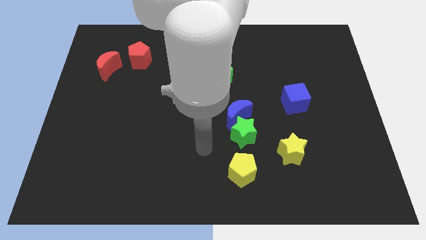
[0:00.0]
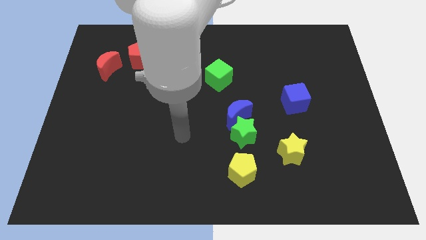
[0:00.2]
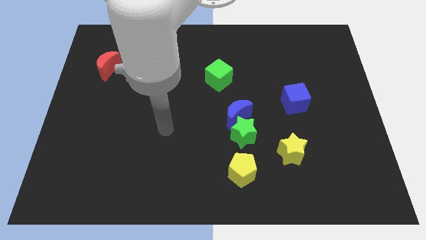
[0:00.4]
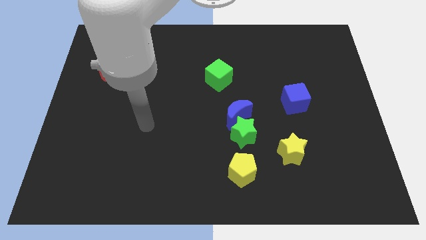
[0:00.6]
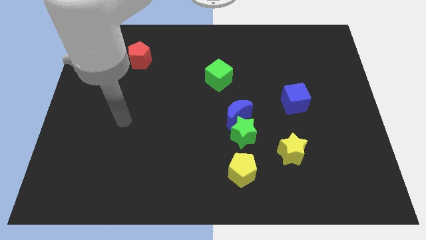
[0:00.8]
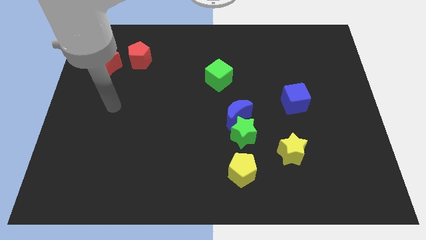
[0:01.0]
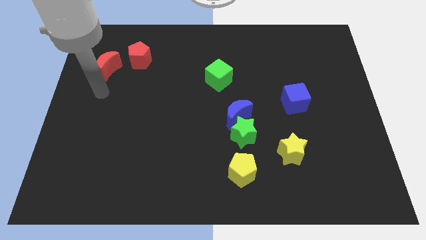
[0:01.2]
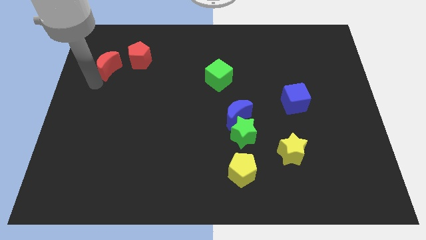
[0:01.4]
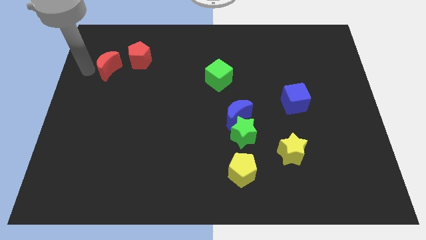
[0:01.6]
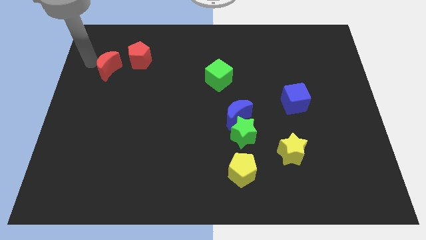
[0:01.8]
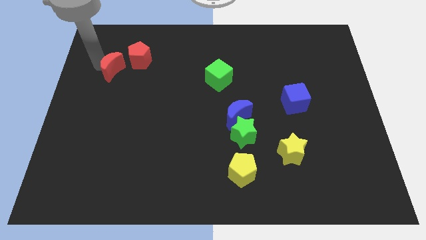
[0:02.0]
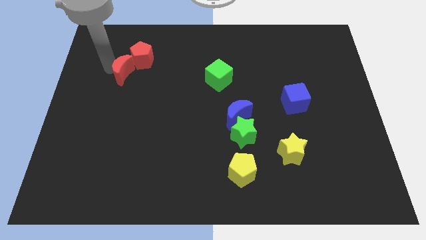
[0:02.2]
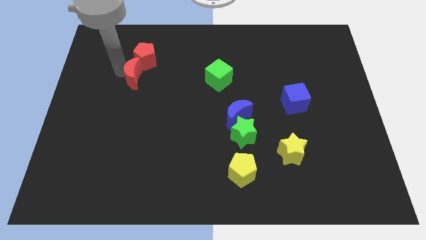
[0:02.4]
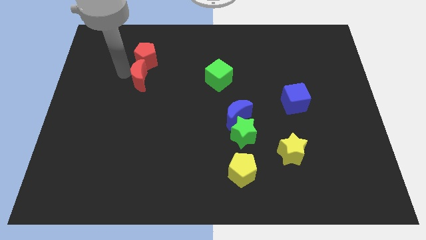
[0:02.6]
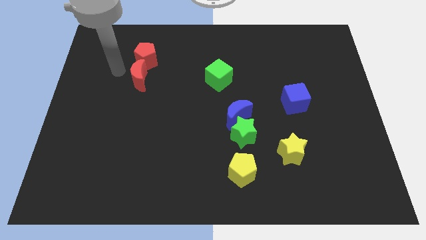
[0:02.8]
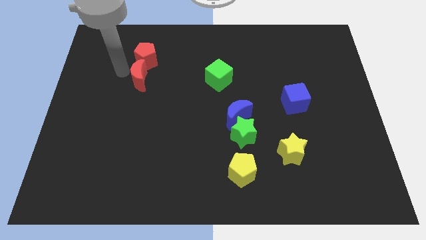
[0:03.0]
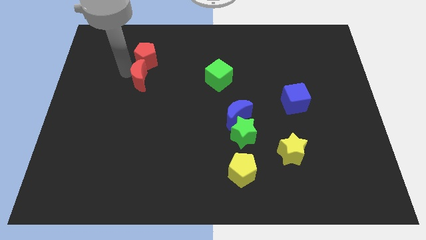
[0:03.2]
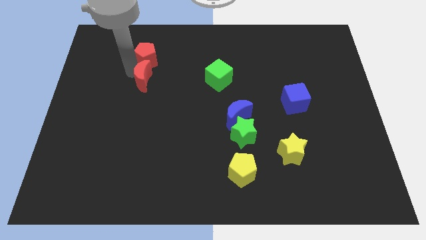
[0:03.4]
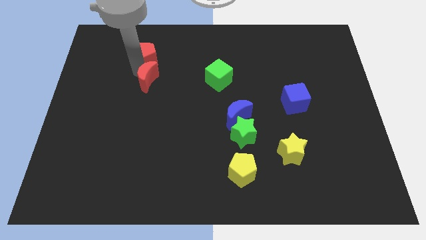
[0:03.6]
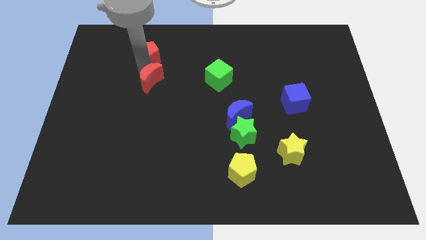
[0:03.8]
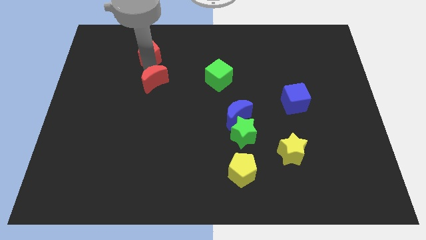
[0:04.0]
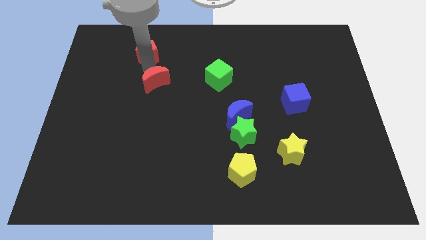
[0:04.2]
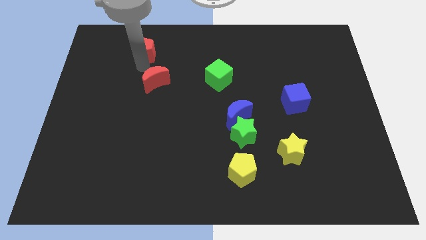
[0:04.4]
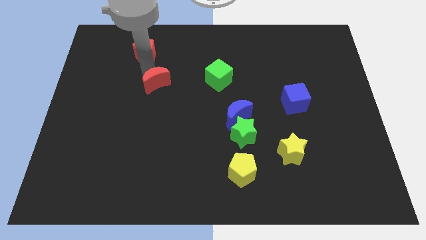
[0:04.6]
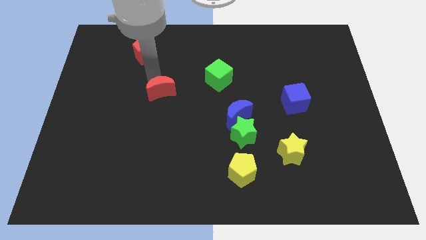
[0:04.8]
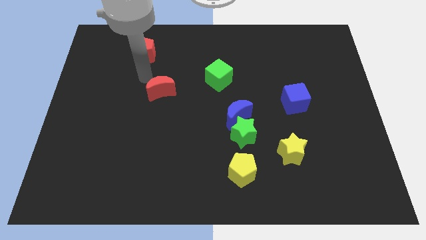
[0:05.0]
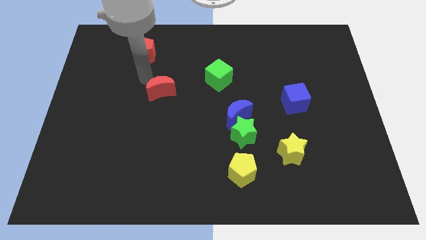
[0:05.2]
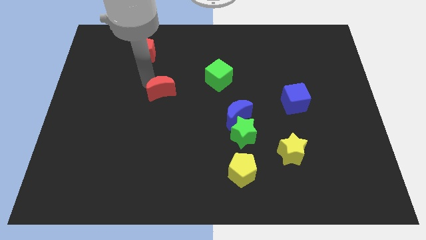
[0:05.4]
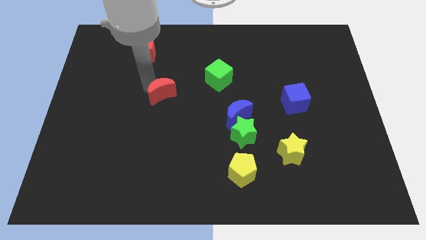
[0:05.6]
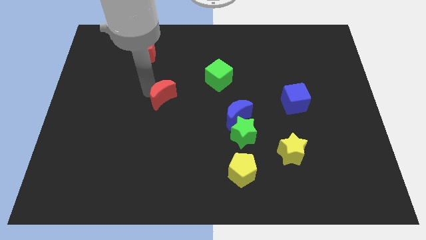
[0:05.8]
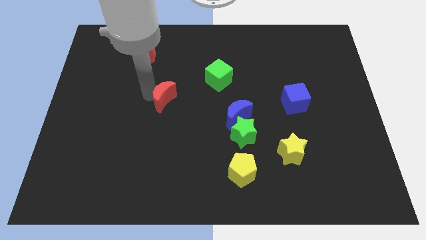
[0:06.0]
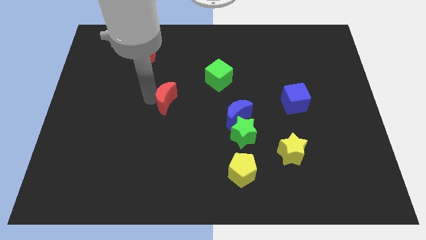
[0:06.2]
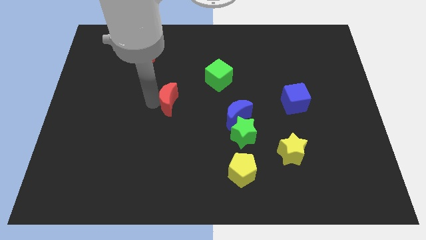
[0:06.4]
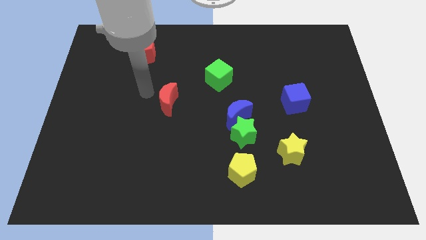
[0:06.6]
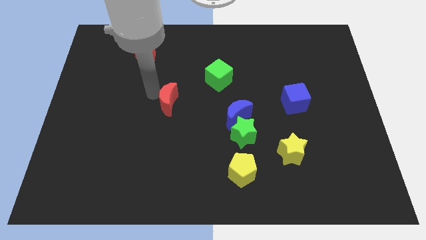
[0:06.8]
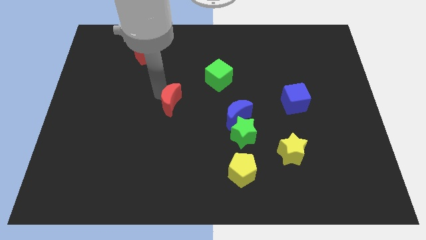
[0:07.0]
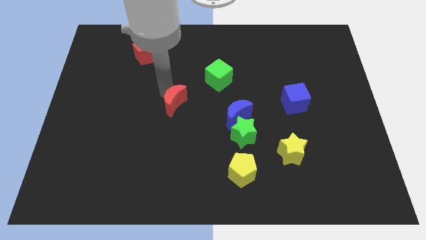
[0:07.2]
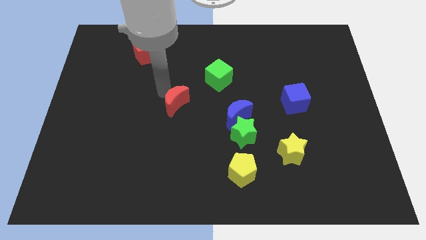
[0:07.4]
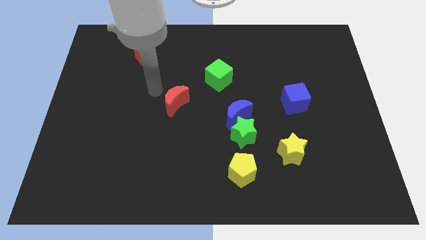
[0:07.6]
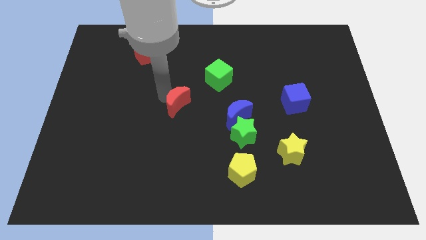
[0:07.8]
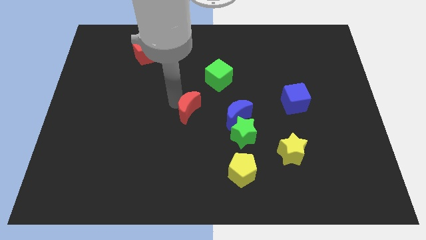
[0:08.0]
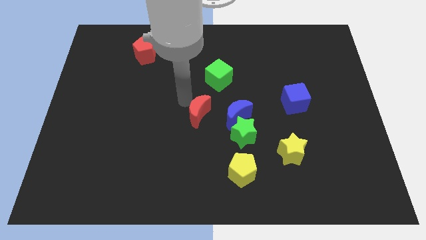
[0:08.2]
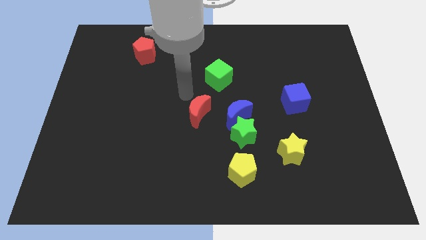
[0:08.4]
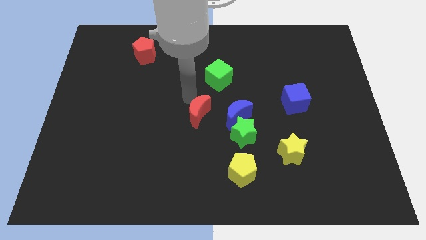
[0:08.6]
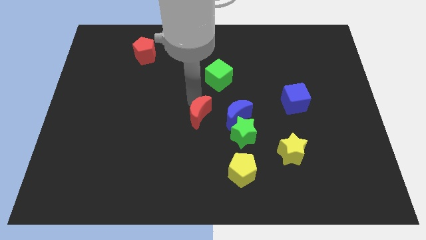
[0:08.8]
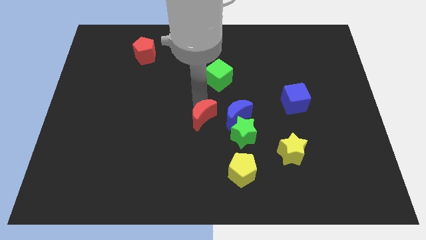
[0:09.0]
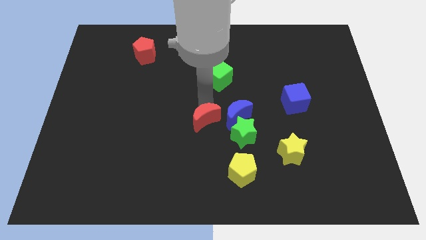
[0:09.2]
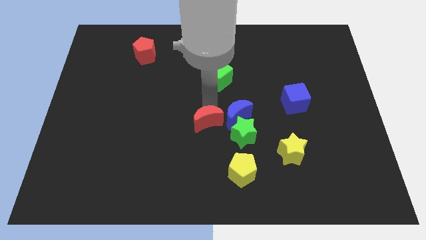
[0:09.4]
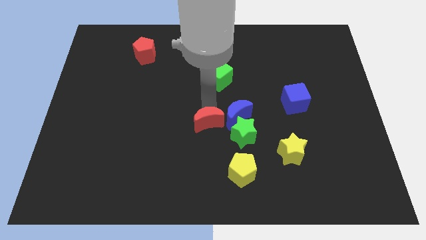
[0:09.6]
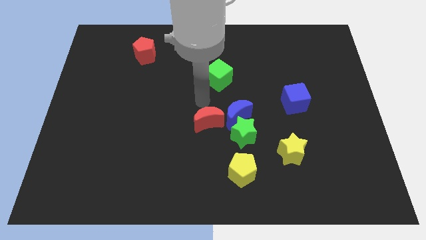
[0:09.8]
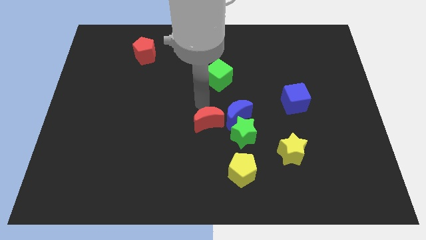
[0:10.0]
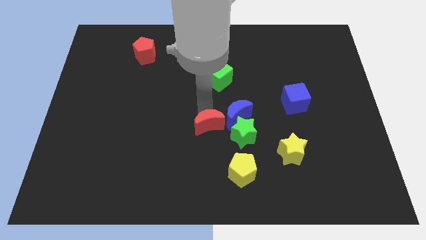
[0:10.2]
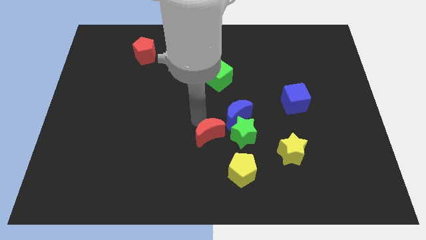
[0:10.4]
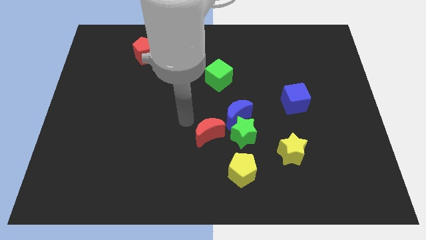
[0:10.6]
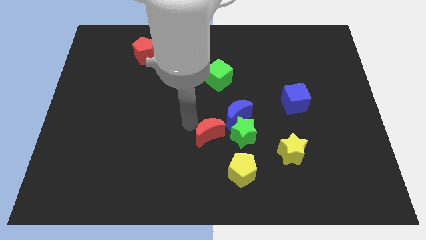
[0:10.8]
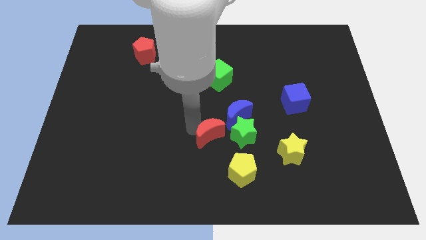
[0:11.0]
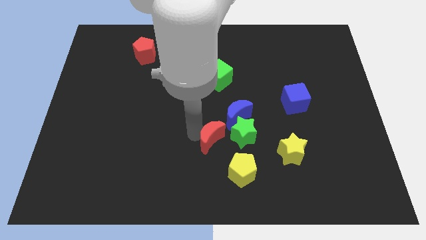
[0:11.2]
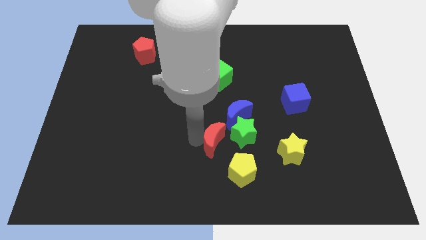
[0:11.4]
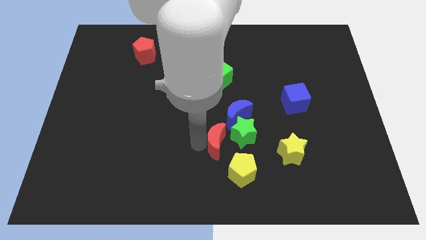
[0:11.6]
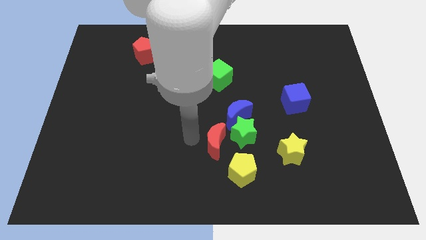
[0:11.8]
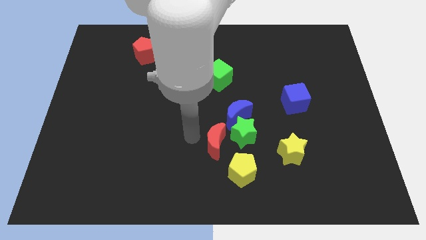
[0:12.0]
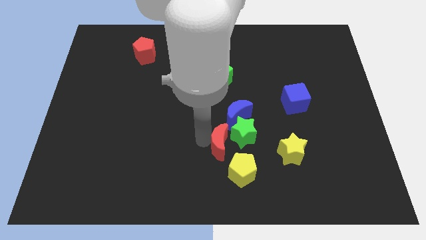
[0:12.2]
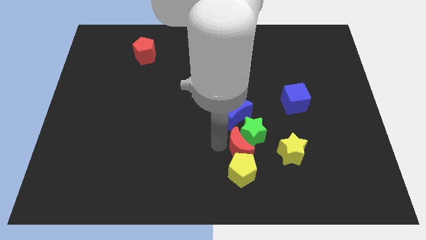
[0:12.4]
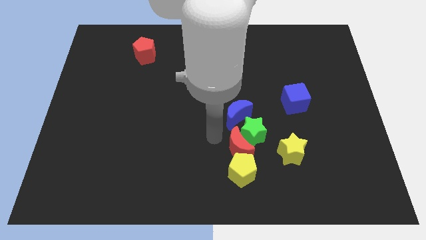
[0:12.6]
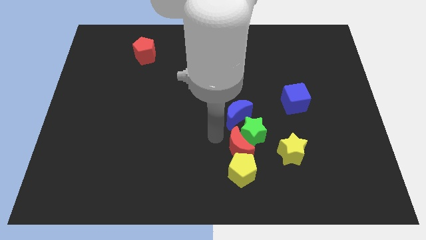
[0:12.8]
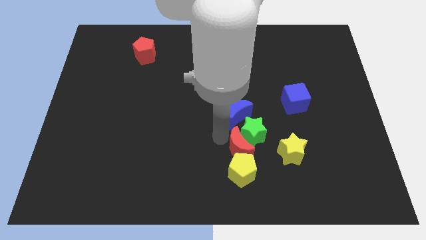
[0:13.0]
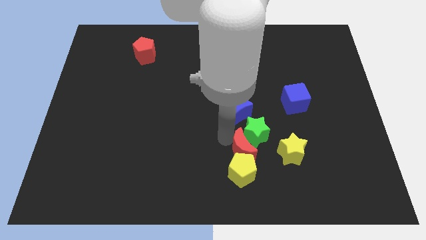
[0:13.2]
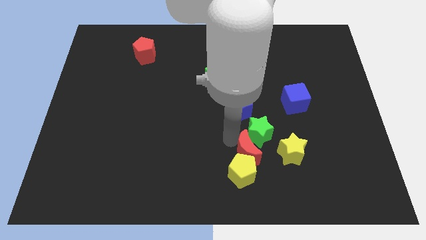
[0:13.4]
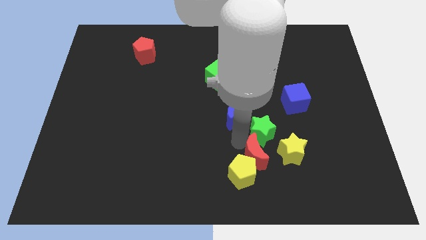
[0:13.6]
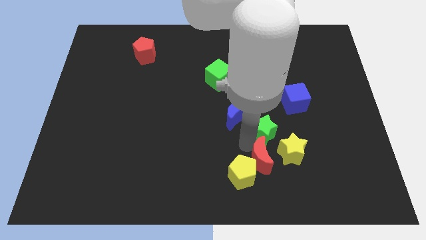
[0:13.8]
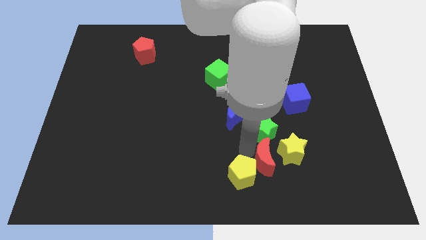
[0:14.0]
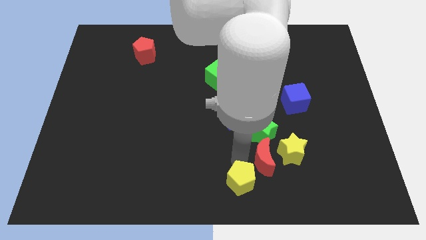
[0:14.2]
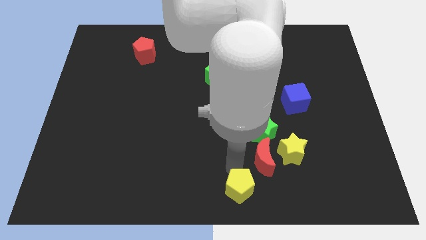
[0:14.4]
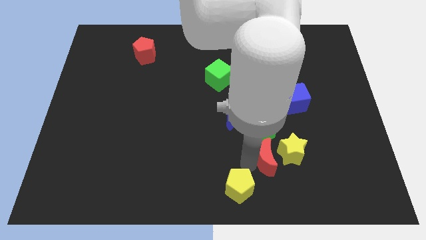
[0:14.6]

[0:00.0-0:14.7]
put the red moon close to the yellow star
